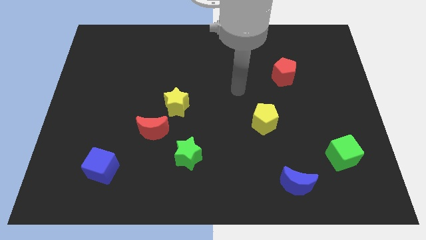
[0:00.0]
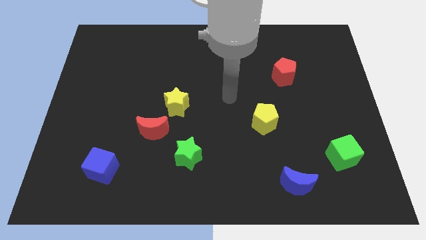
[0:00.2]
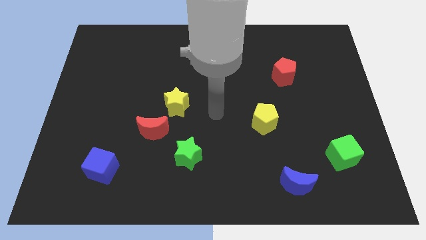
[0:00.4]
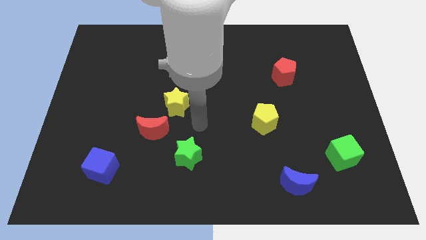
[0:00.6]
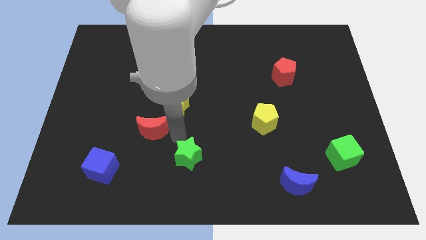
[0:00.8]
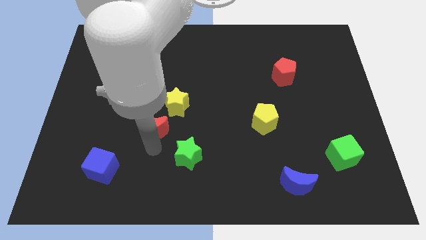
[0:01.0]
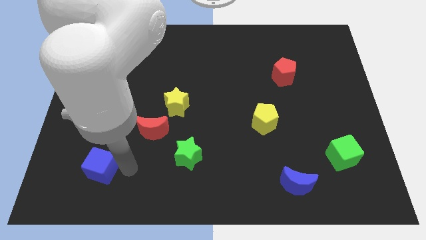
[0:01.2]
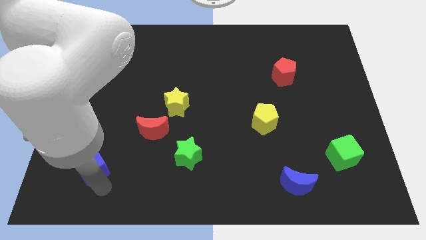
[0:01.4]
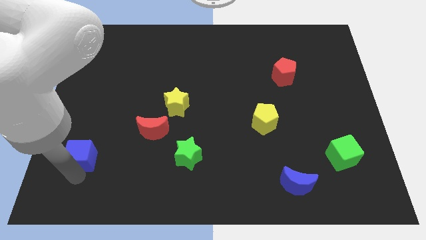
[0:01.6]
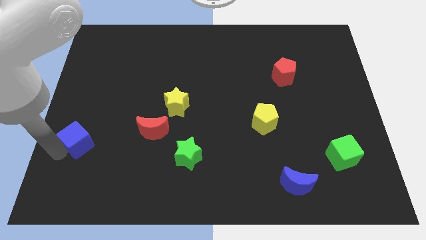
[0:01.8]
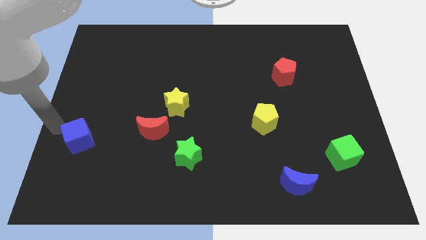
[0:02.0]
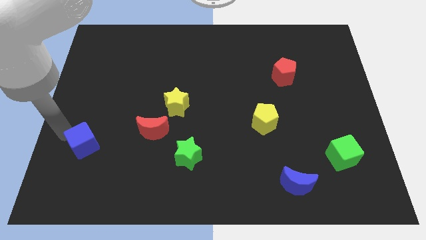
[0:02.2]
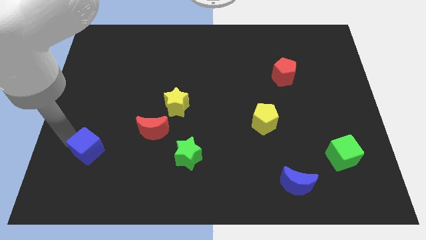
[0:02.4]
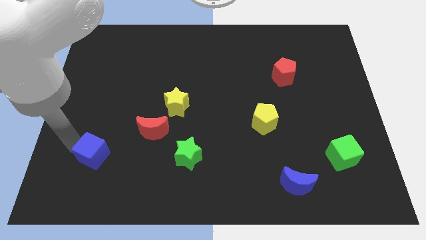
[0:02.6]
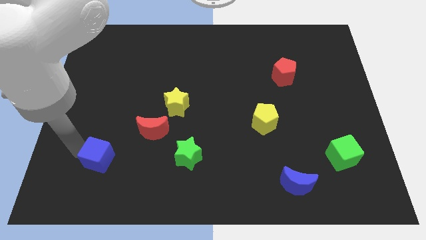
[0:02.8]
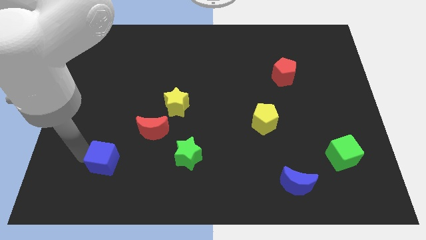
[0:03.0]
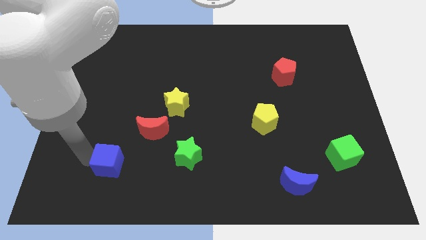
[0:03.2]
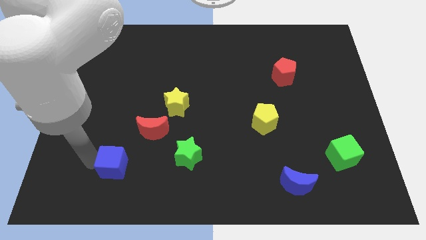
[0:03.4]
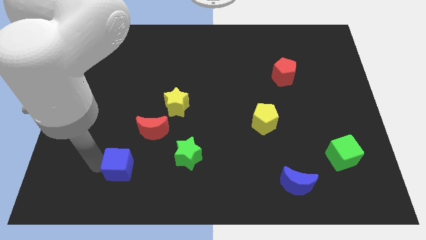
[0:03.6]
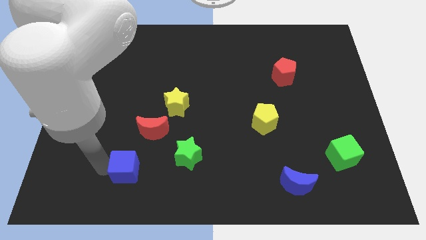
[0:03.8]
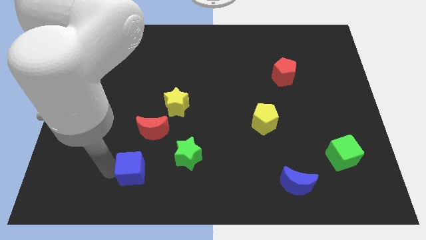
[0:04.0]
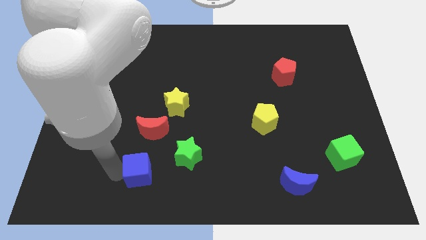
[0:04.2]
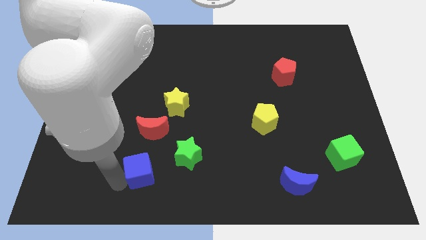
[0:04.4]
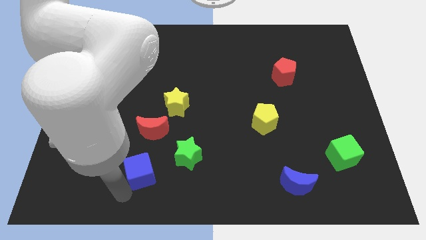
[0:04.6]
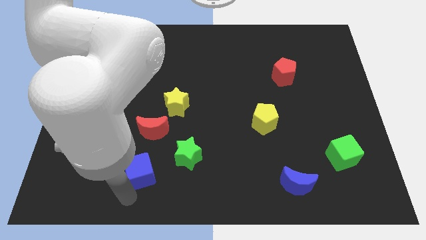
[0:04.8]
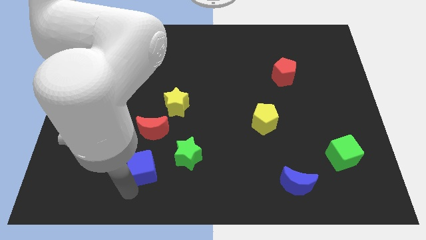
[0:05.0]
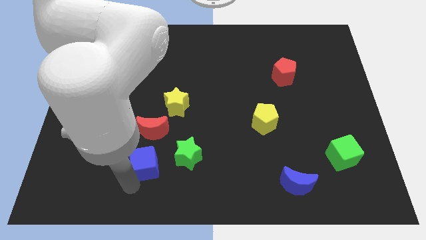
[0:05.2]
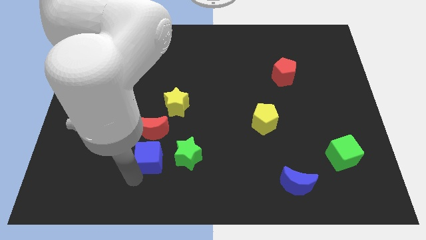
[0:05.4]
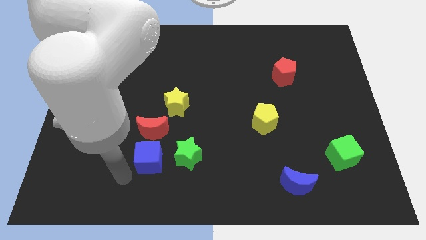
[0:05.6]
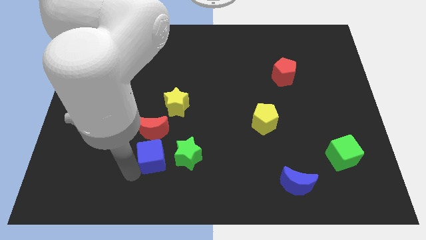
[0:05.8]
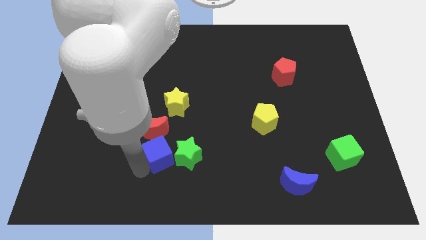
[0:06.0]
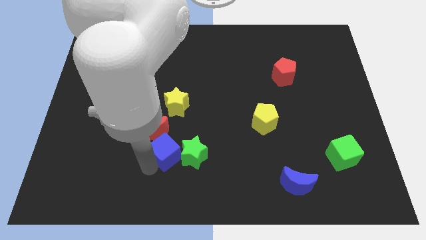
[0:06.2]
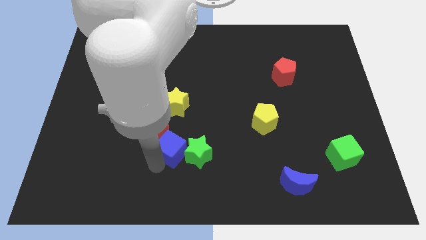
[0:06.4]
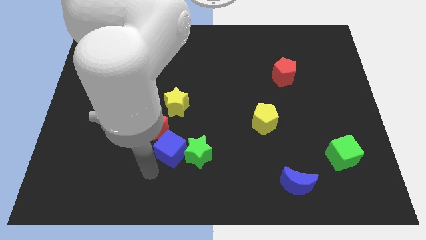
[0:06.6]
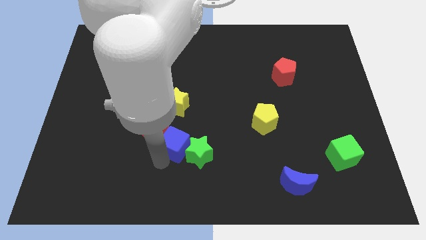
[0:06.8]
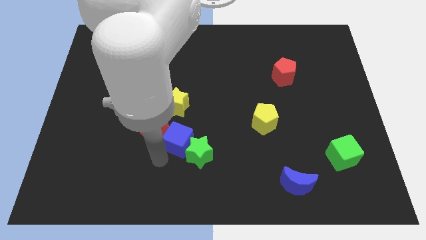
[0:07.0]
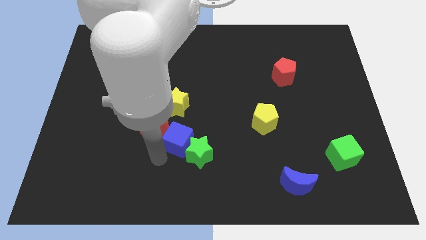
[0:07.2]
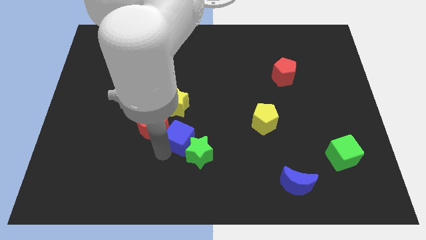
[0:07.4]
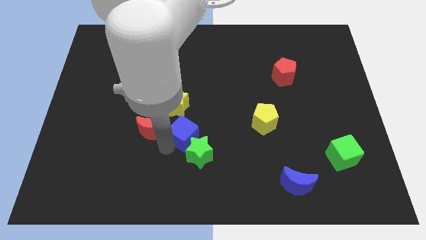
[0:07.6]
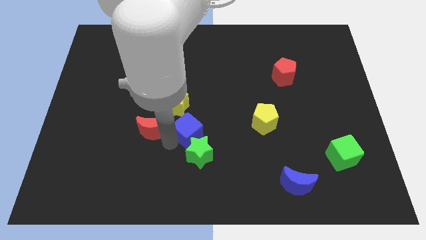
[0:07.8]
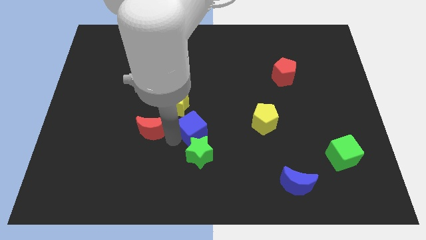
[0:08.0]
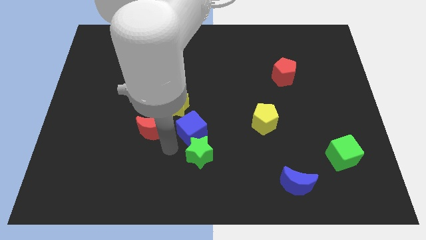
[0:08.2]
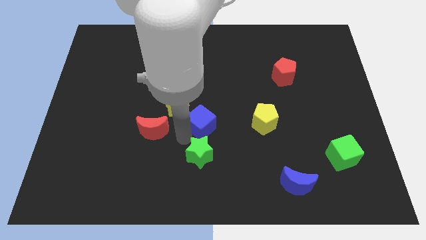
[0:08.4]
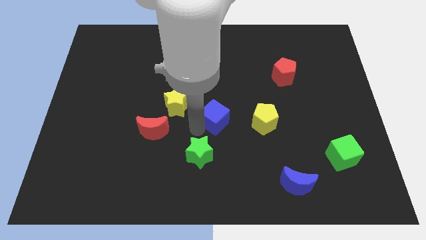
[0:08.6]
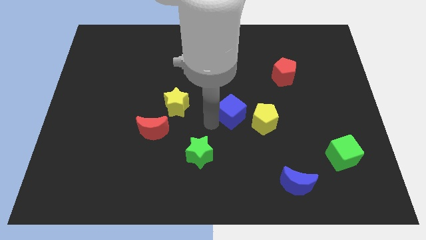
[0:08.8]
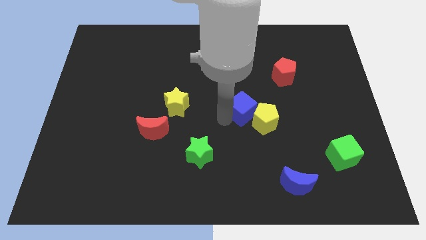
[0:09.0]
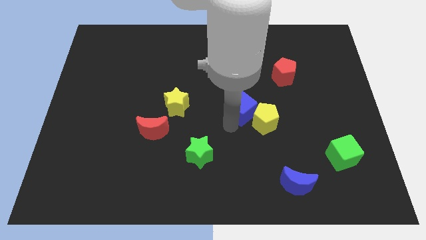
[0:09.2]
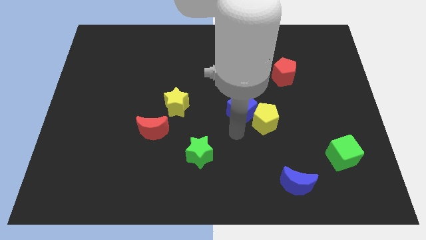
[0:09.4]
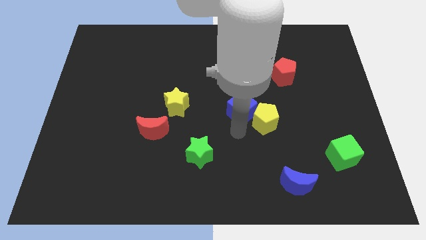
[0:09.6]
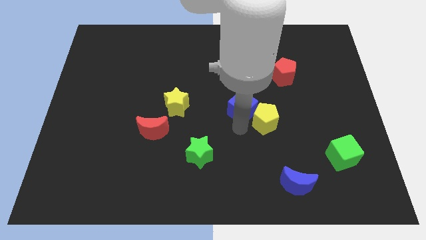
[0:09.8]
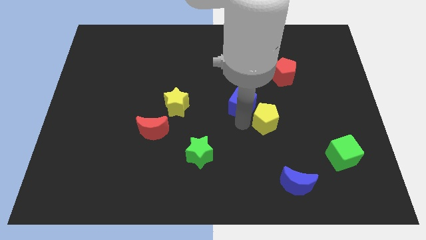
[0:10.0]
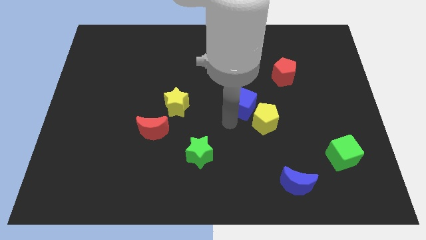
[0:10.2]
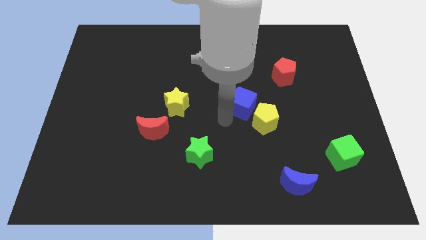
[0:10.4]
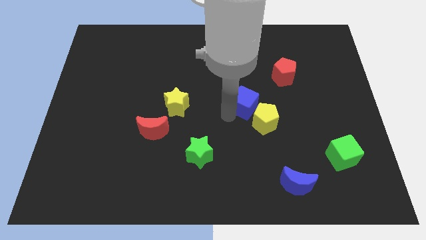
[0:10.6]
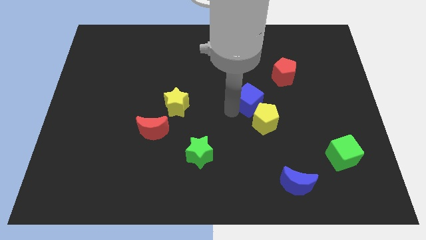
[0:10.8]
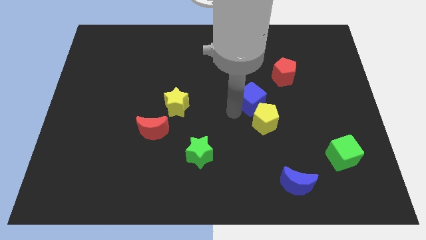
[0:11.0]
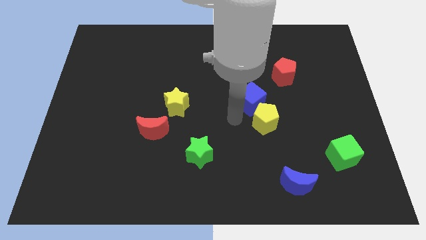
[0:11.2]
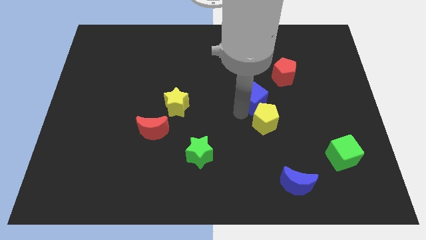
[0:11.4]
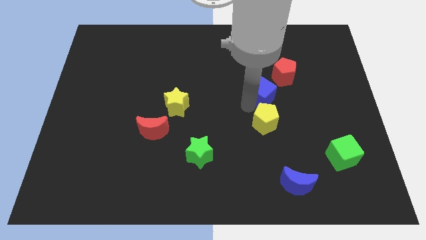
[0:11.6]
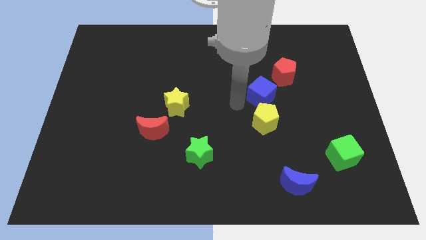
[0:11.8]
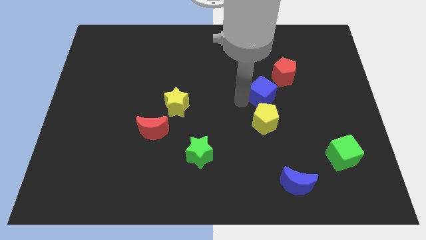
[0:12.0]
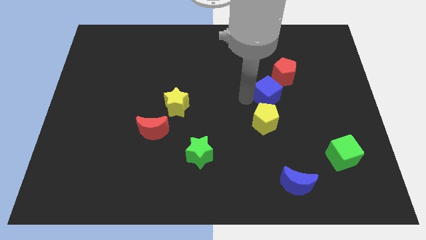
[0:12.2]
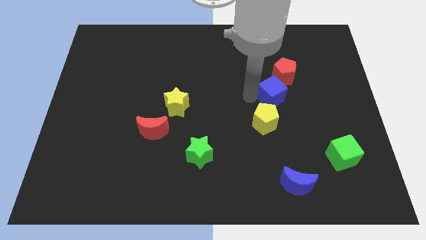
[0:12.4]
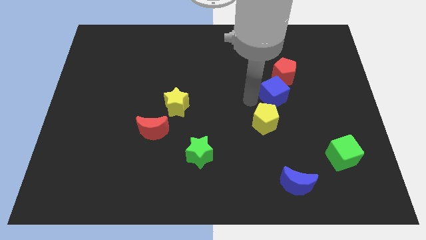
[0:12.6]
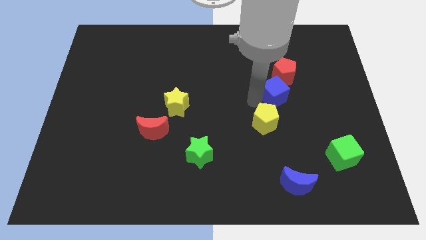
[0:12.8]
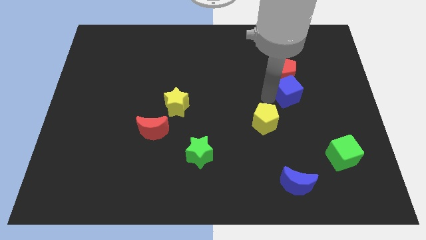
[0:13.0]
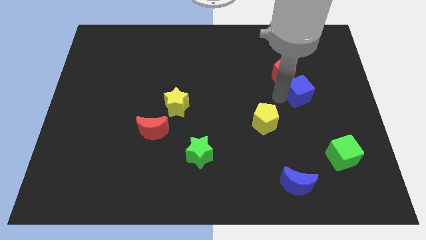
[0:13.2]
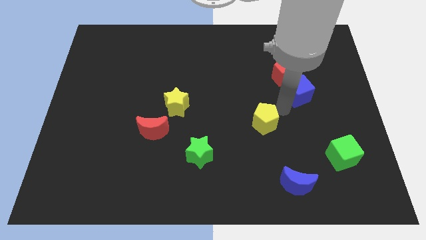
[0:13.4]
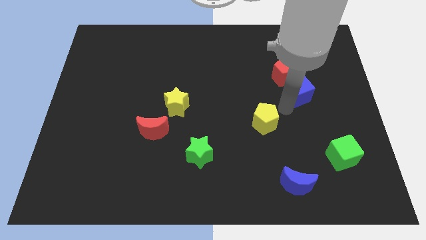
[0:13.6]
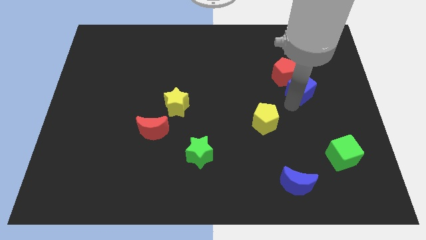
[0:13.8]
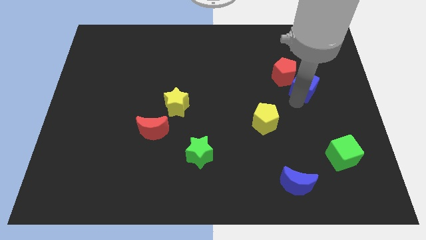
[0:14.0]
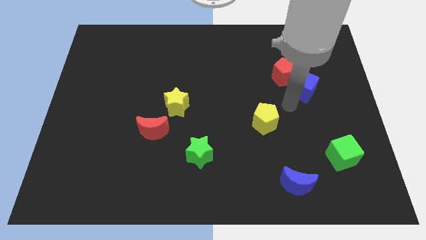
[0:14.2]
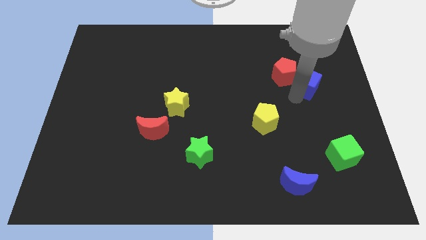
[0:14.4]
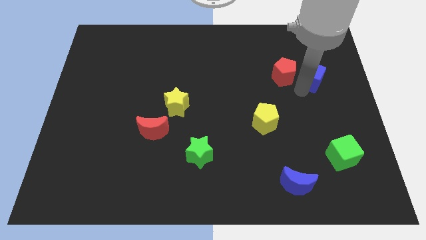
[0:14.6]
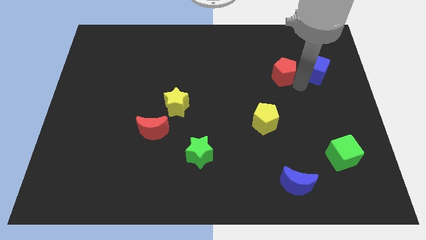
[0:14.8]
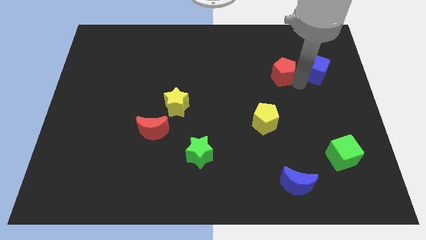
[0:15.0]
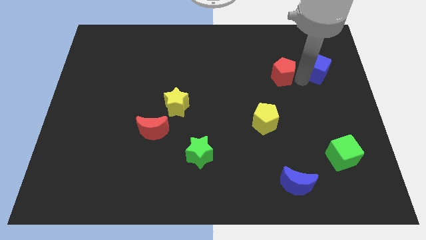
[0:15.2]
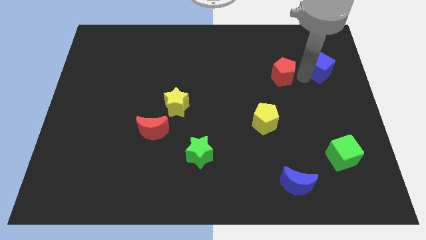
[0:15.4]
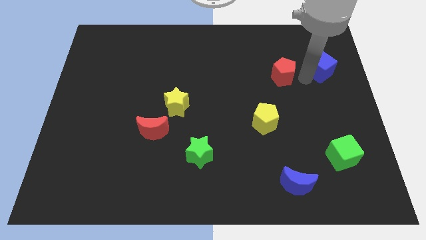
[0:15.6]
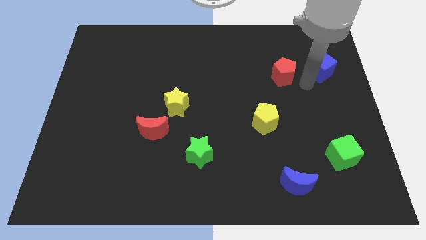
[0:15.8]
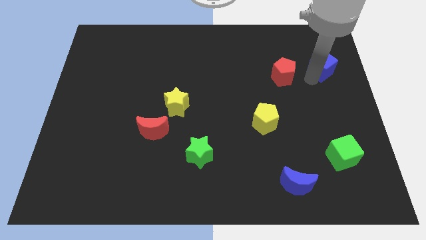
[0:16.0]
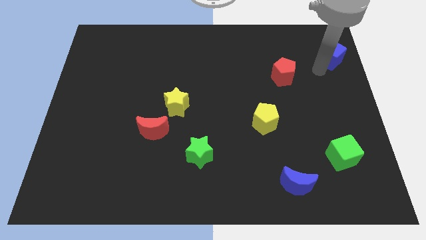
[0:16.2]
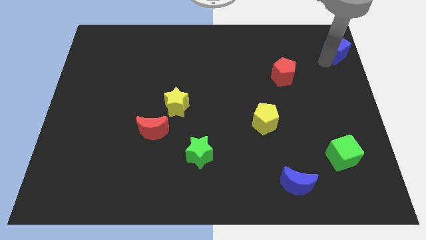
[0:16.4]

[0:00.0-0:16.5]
push the blue cube to the top right corner
